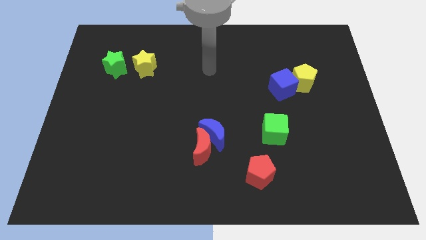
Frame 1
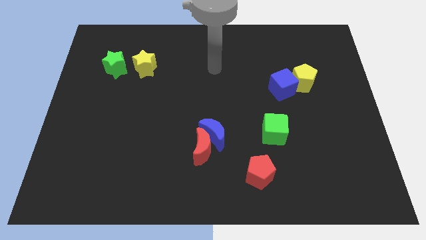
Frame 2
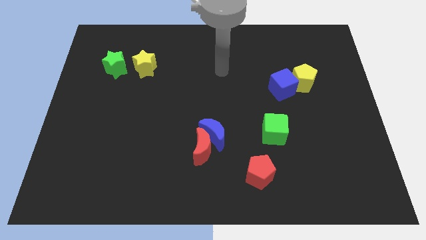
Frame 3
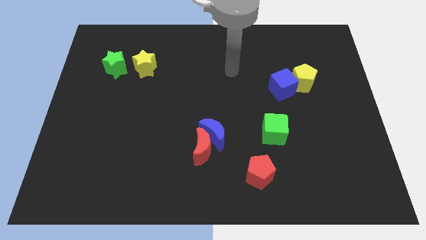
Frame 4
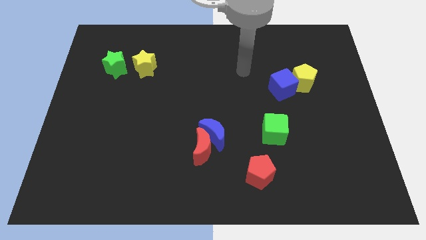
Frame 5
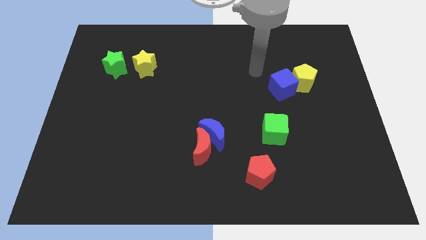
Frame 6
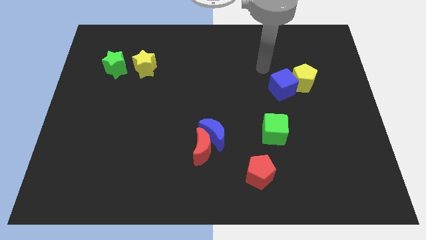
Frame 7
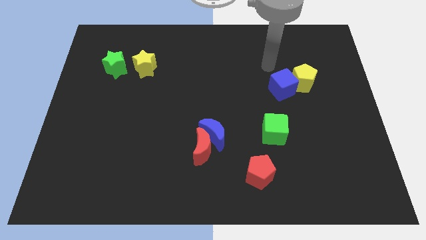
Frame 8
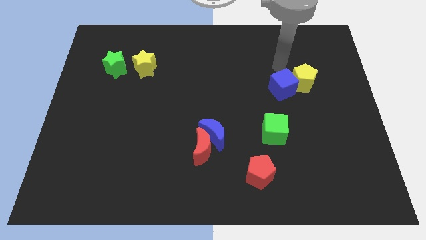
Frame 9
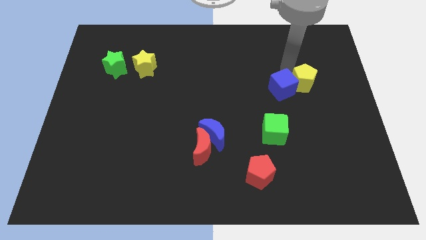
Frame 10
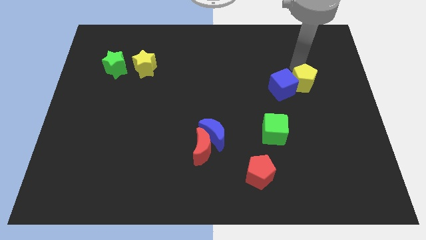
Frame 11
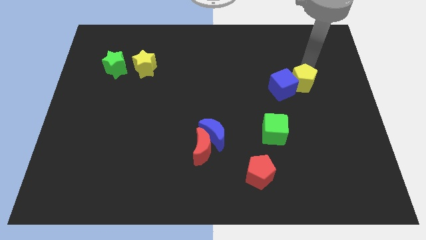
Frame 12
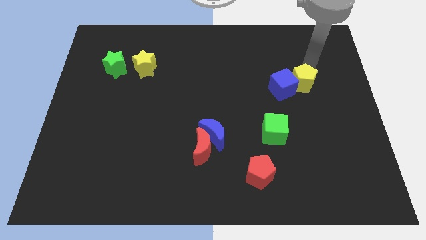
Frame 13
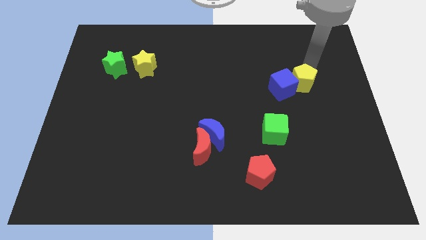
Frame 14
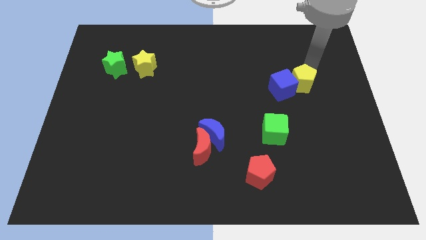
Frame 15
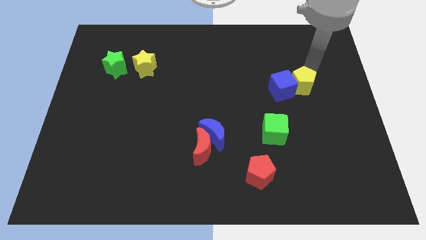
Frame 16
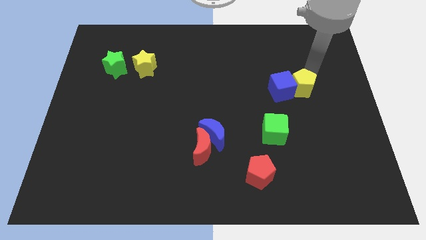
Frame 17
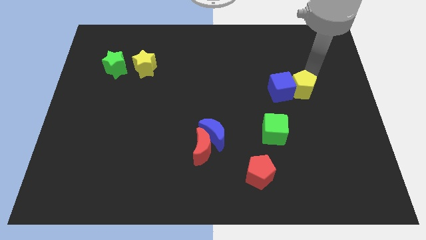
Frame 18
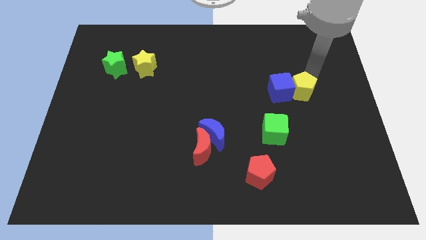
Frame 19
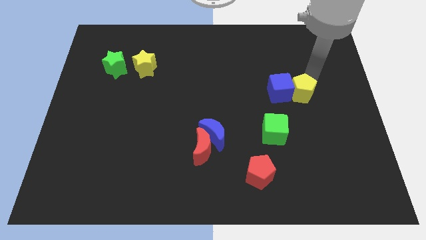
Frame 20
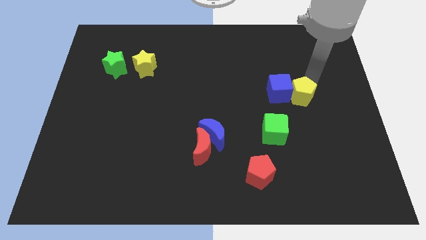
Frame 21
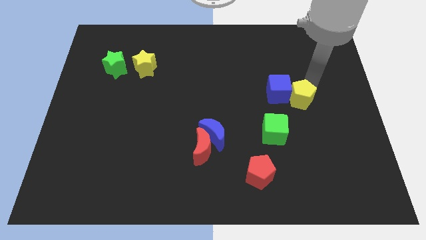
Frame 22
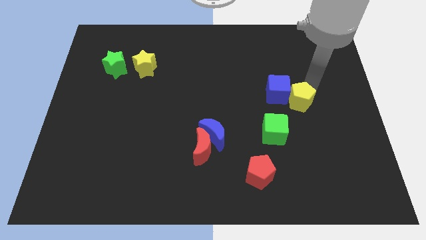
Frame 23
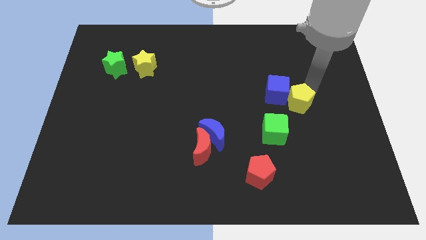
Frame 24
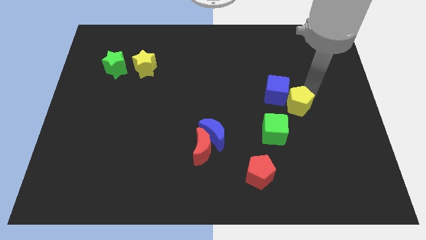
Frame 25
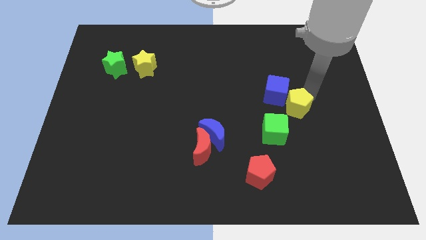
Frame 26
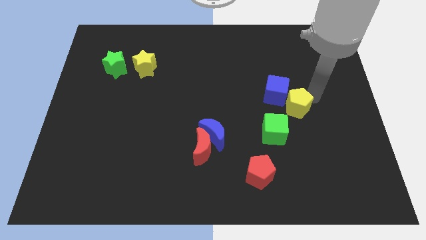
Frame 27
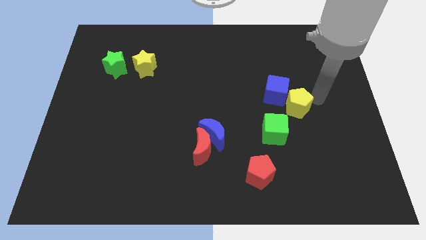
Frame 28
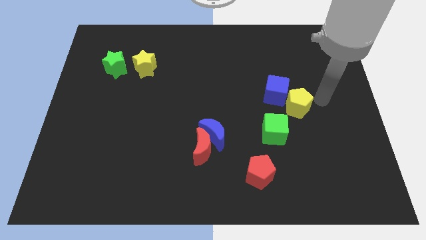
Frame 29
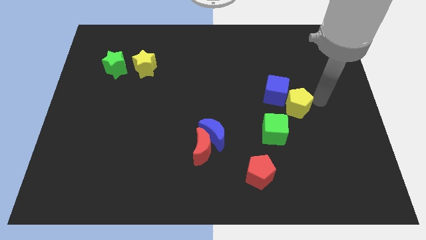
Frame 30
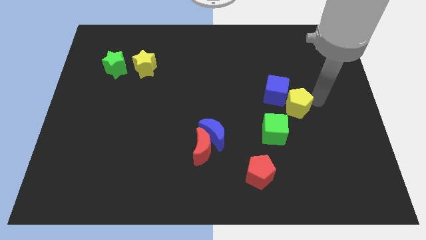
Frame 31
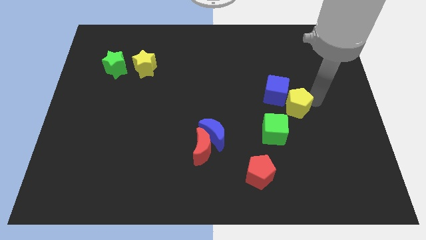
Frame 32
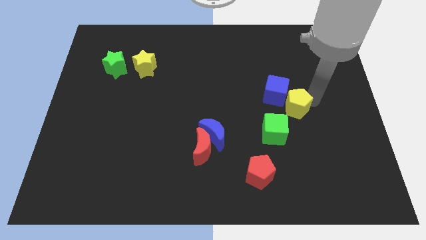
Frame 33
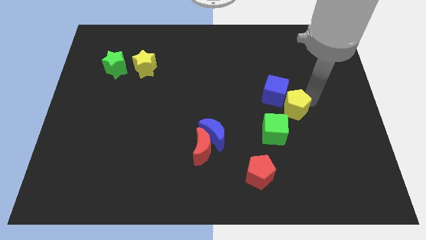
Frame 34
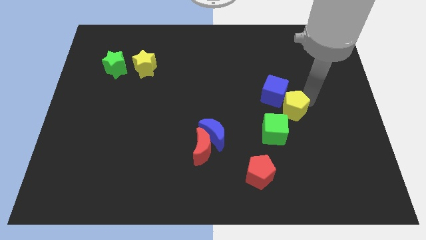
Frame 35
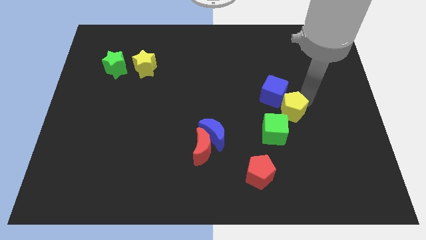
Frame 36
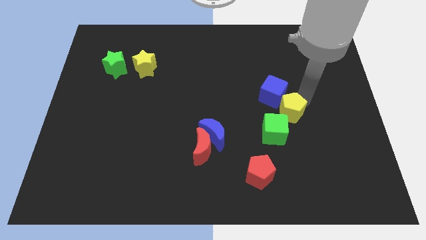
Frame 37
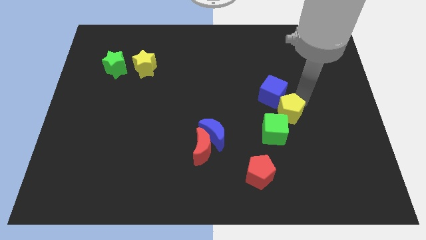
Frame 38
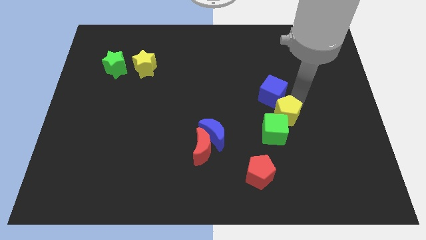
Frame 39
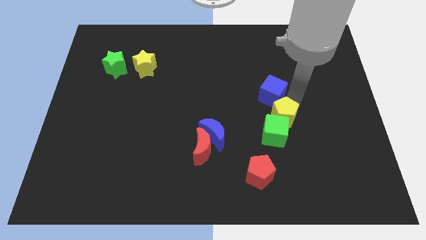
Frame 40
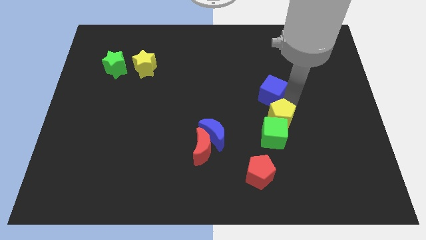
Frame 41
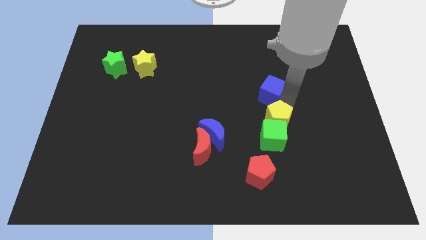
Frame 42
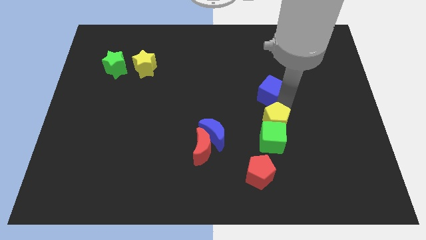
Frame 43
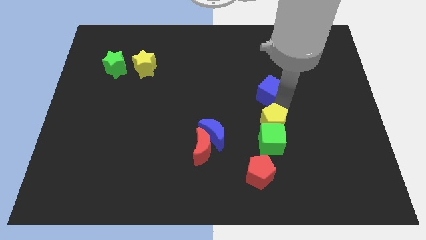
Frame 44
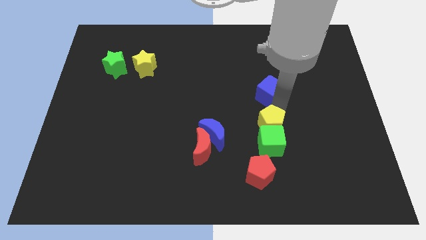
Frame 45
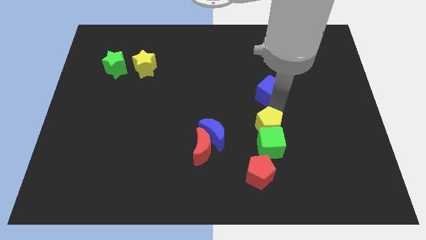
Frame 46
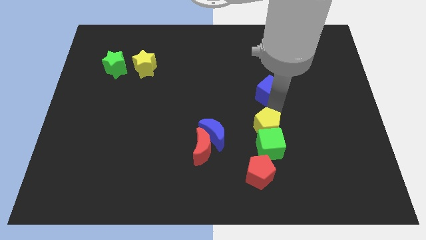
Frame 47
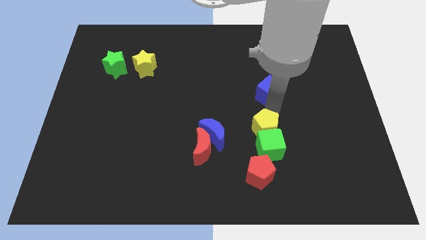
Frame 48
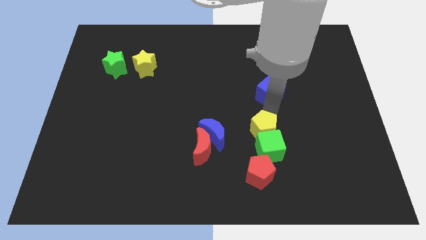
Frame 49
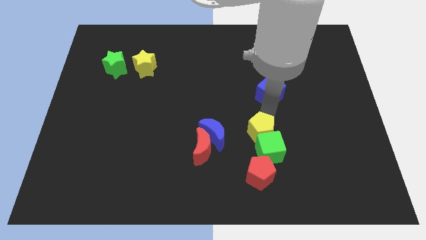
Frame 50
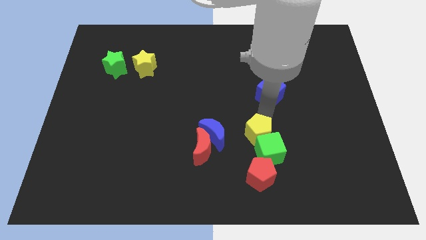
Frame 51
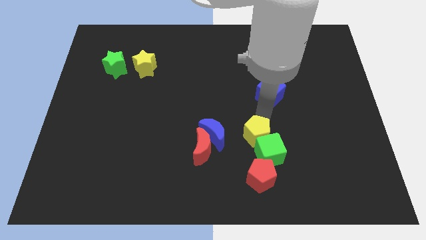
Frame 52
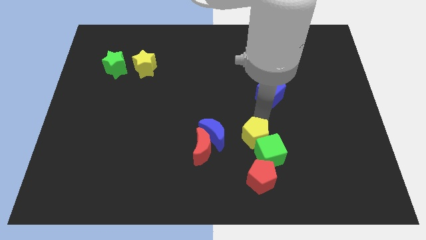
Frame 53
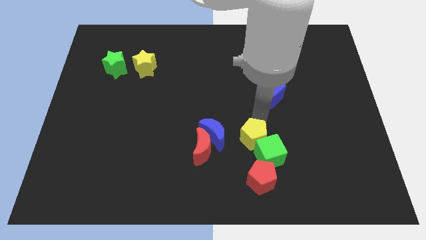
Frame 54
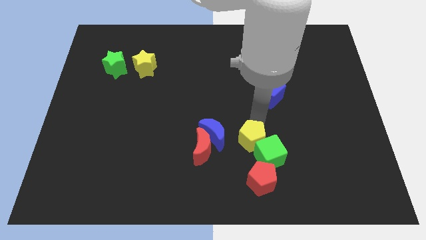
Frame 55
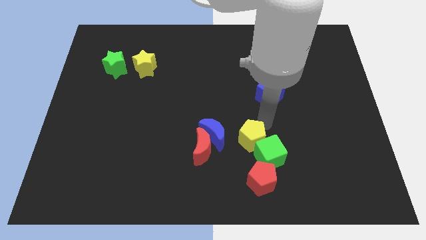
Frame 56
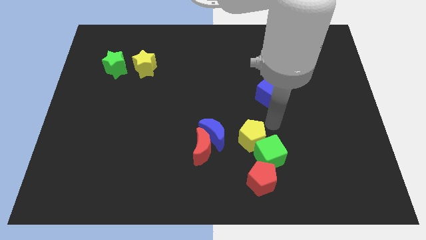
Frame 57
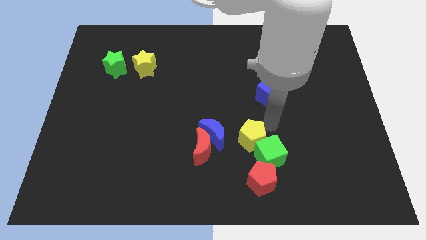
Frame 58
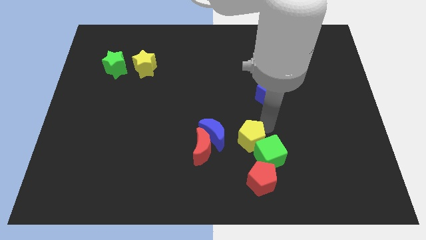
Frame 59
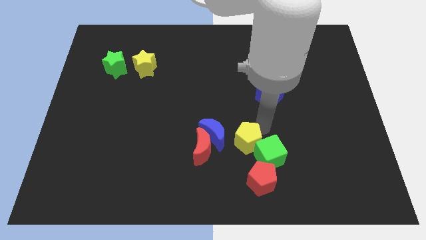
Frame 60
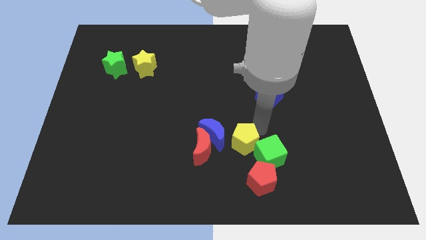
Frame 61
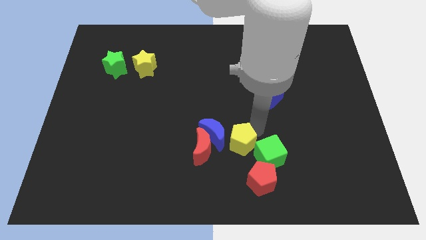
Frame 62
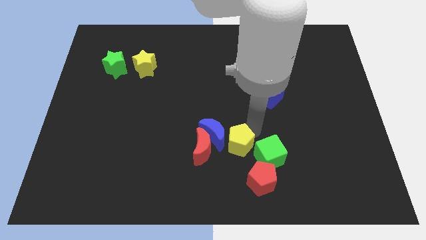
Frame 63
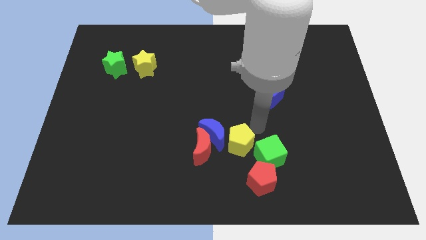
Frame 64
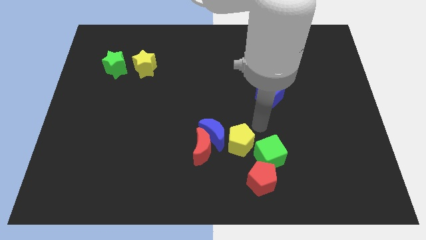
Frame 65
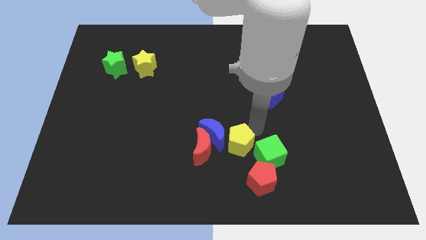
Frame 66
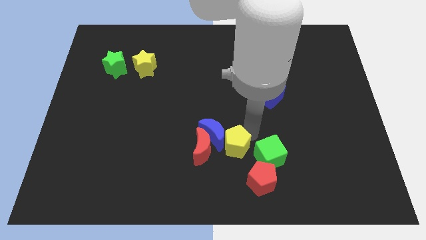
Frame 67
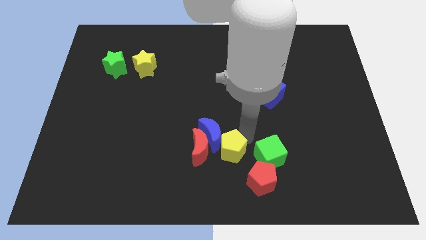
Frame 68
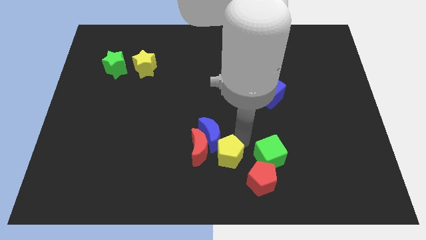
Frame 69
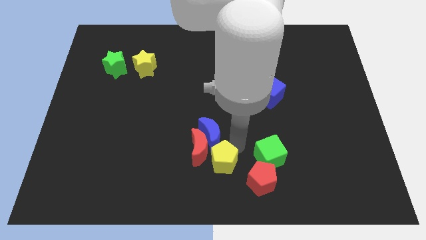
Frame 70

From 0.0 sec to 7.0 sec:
move the yellow pentagon to the left of the red pentagon

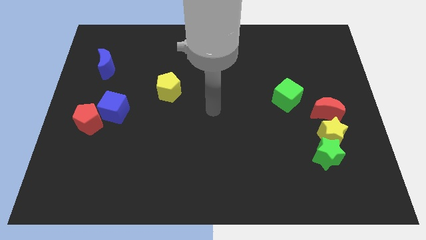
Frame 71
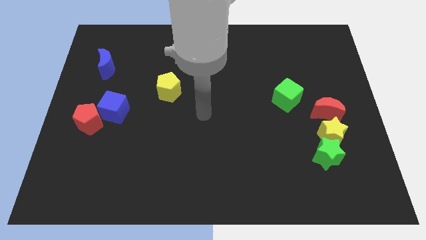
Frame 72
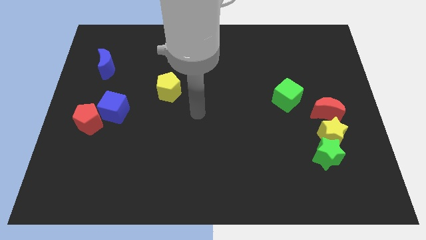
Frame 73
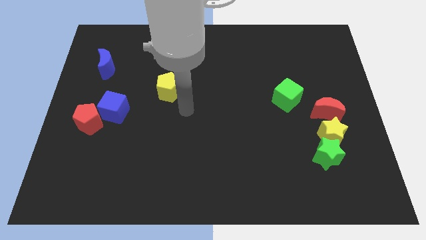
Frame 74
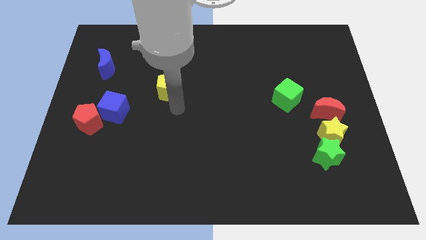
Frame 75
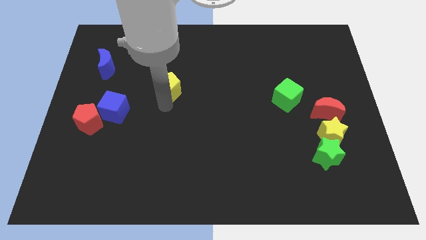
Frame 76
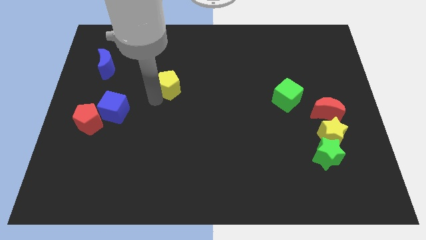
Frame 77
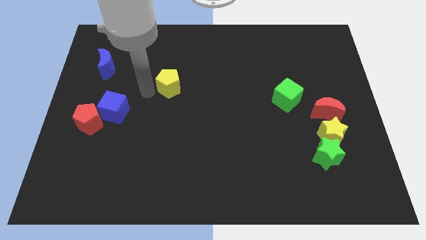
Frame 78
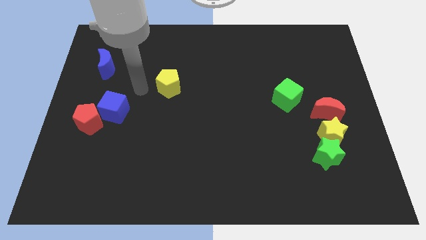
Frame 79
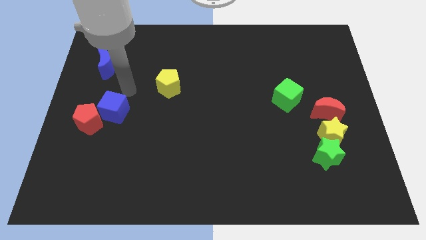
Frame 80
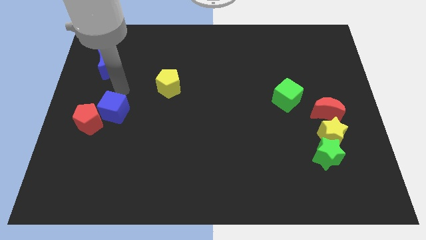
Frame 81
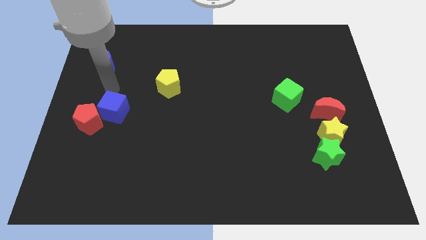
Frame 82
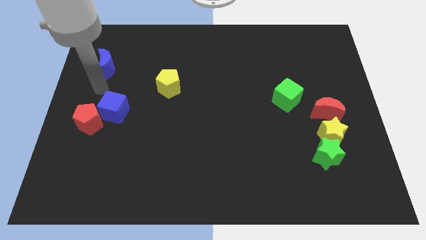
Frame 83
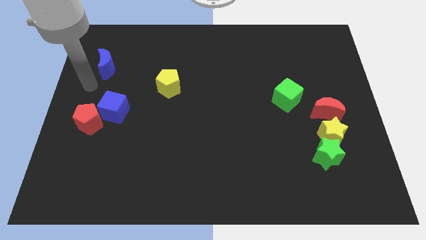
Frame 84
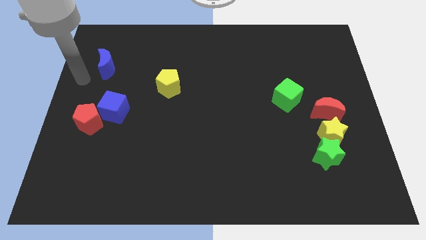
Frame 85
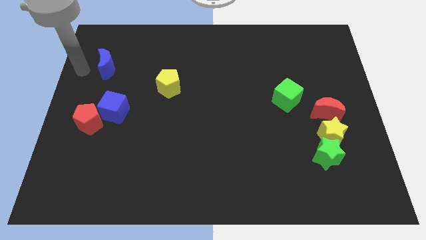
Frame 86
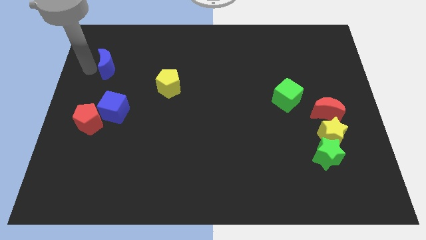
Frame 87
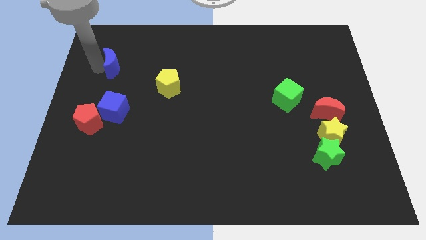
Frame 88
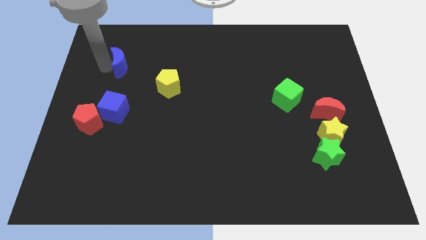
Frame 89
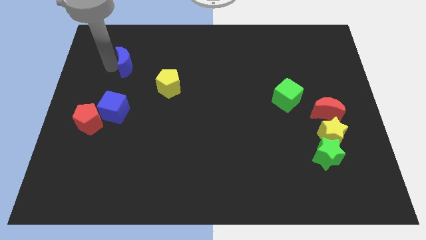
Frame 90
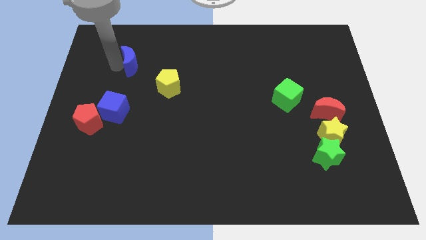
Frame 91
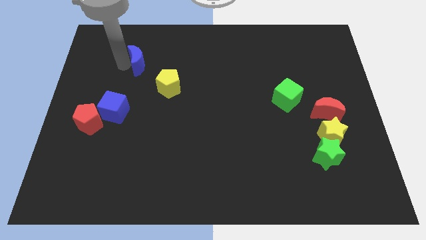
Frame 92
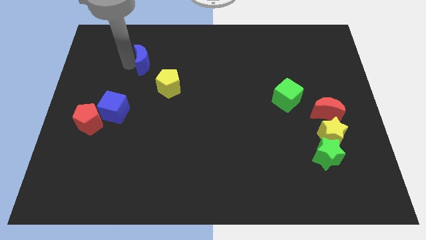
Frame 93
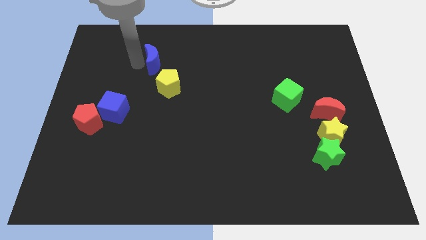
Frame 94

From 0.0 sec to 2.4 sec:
push the blue moon to the top side of the yellow pentagon
